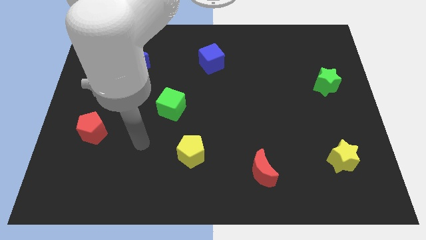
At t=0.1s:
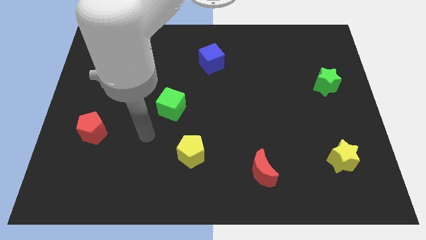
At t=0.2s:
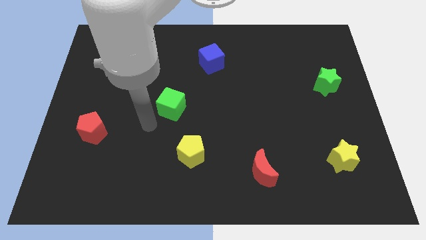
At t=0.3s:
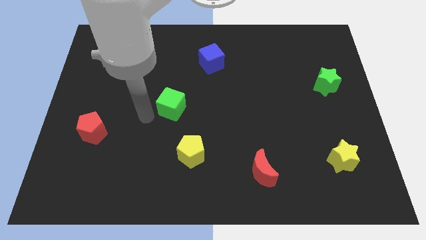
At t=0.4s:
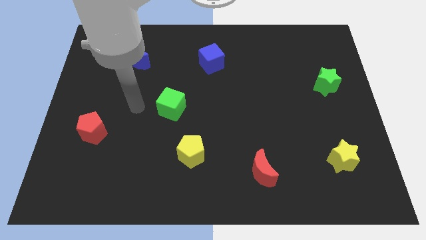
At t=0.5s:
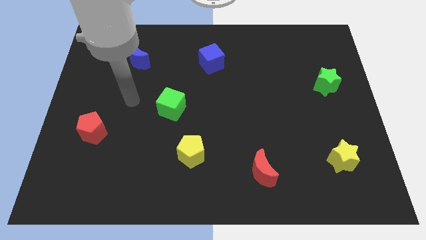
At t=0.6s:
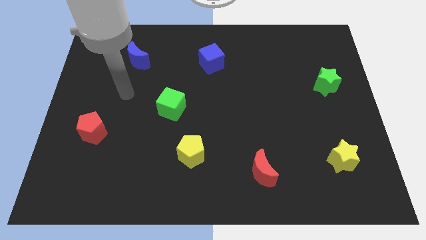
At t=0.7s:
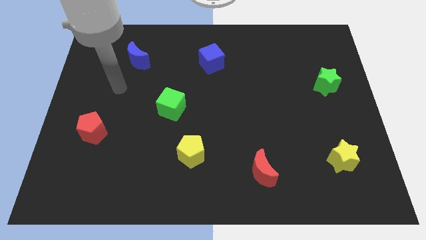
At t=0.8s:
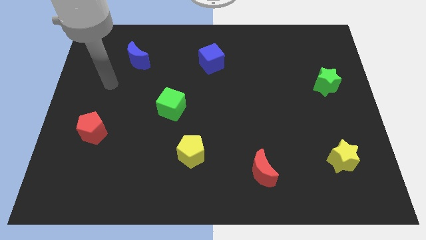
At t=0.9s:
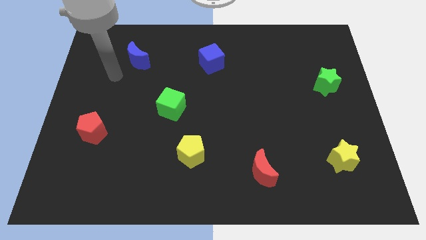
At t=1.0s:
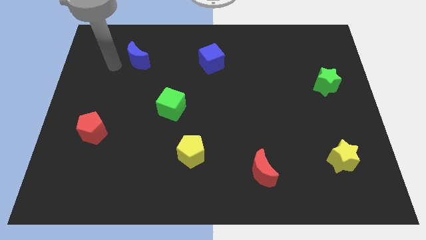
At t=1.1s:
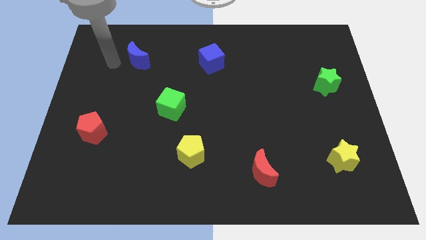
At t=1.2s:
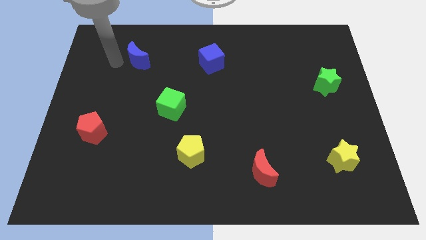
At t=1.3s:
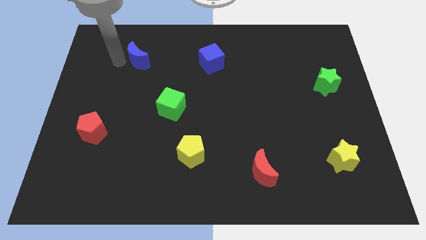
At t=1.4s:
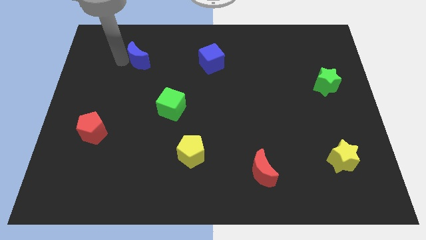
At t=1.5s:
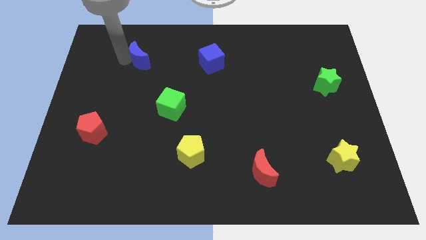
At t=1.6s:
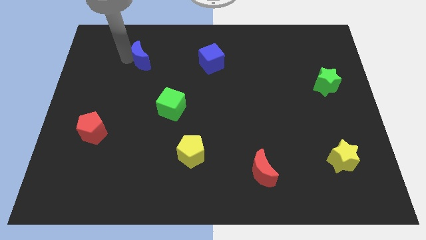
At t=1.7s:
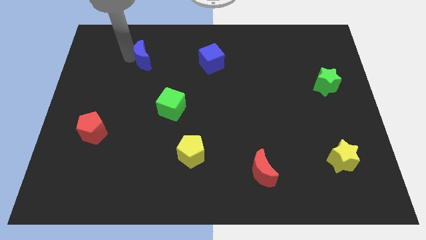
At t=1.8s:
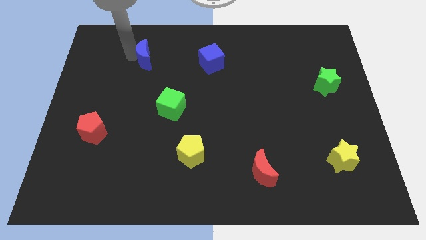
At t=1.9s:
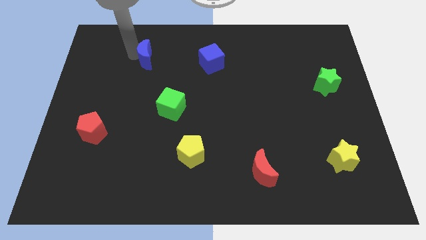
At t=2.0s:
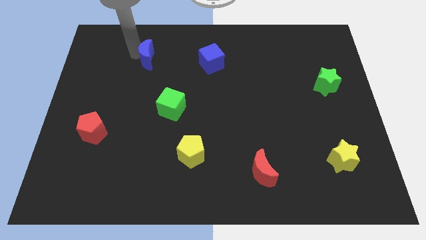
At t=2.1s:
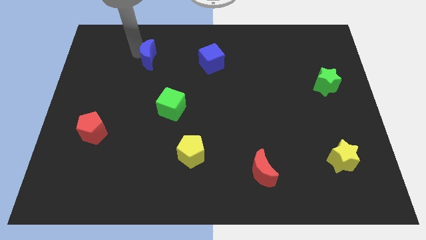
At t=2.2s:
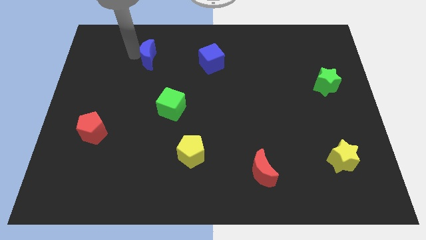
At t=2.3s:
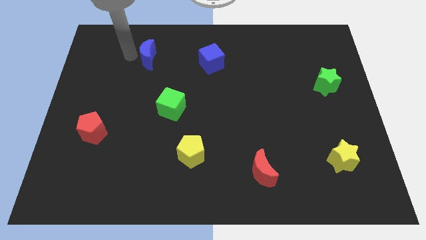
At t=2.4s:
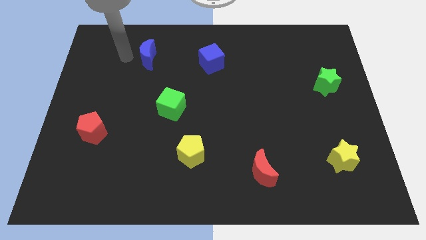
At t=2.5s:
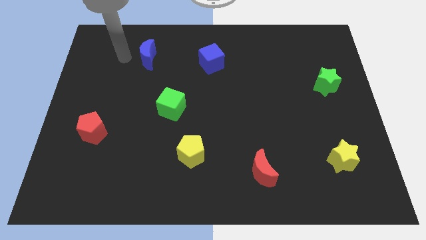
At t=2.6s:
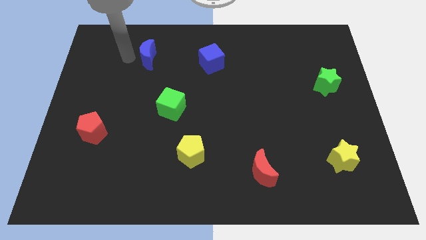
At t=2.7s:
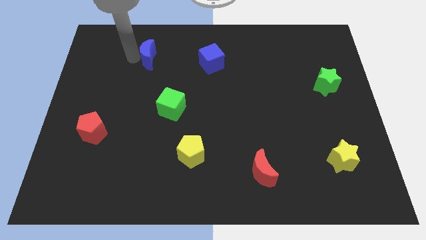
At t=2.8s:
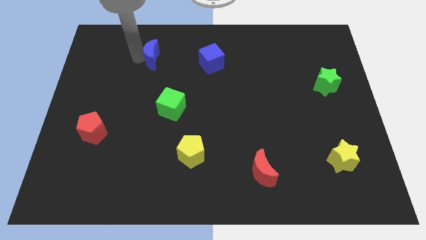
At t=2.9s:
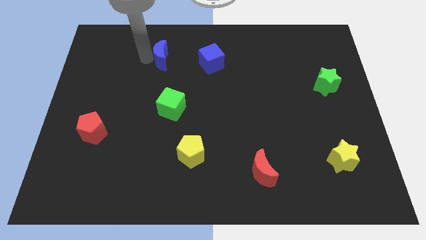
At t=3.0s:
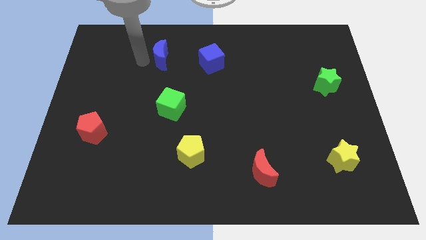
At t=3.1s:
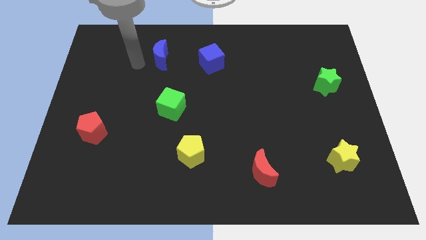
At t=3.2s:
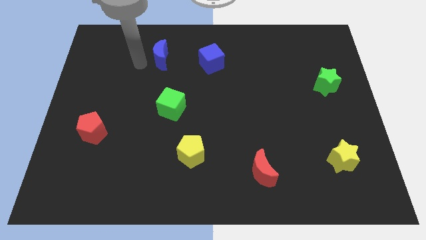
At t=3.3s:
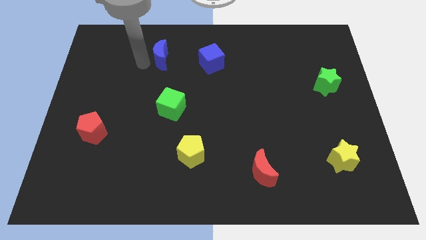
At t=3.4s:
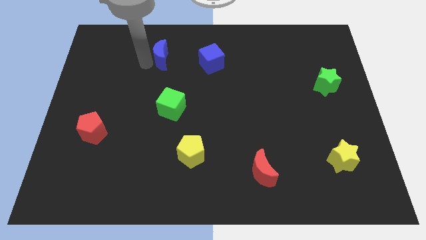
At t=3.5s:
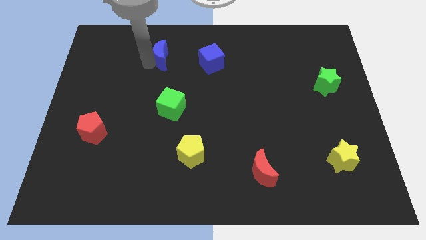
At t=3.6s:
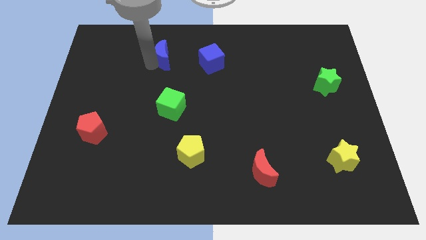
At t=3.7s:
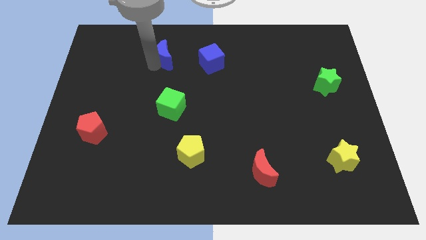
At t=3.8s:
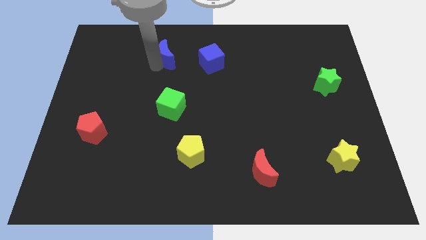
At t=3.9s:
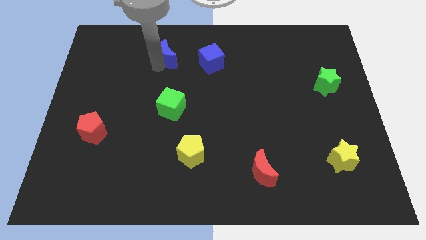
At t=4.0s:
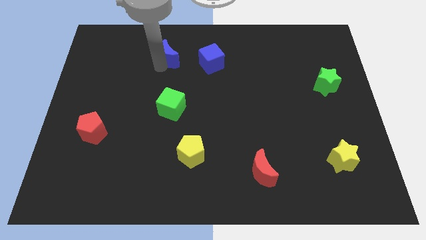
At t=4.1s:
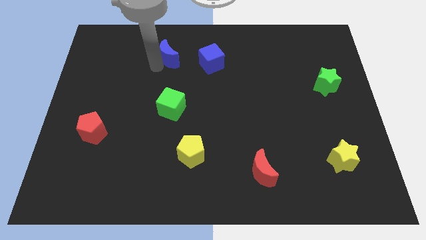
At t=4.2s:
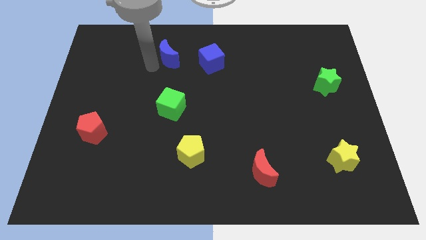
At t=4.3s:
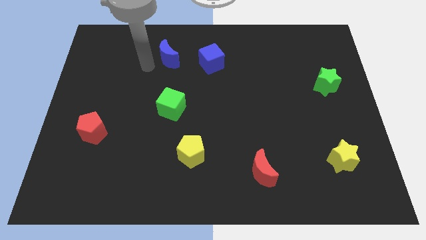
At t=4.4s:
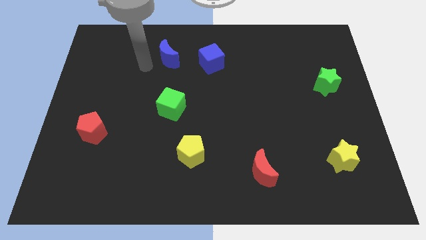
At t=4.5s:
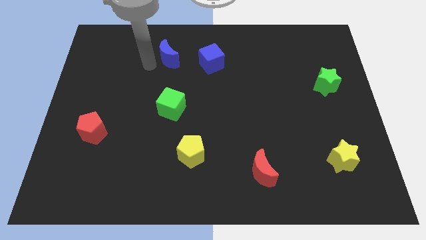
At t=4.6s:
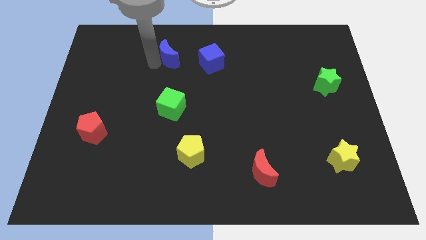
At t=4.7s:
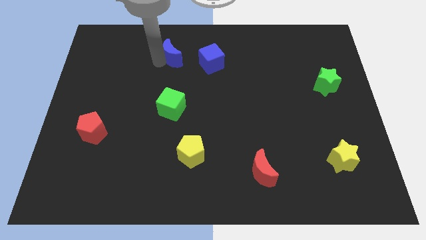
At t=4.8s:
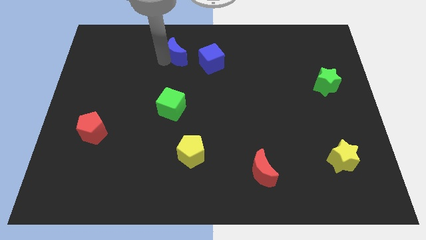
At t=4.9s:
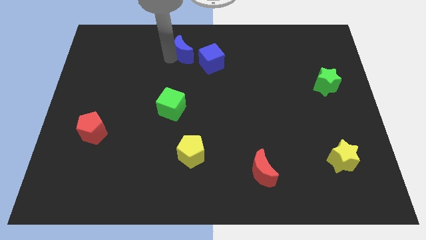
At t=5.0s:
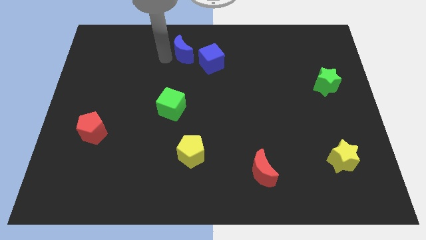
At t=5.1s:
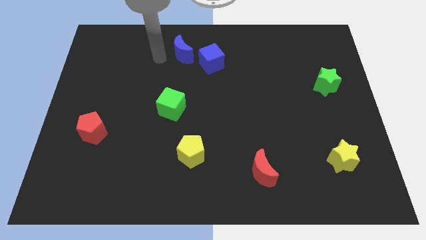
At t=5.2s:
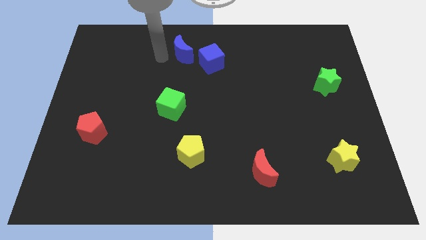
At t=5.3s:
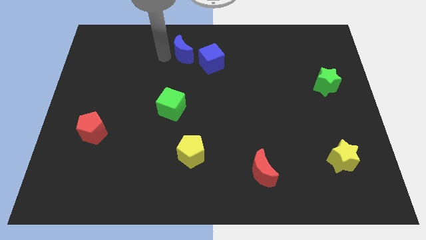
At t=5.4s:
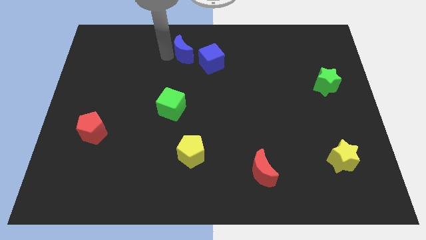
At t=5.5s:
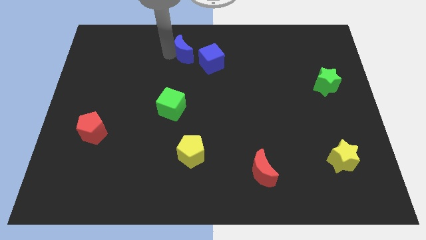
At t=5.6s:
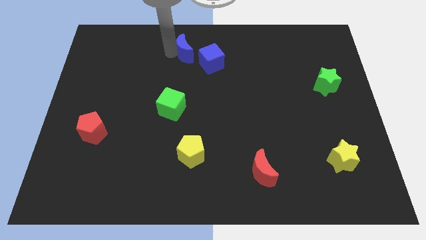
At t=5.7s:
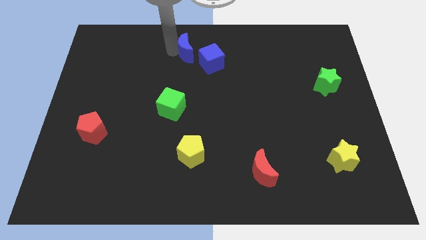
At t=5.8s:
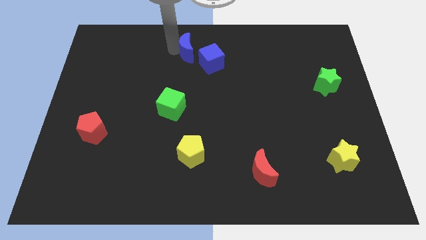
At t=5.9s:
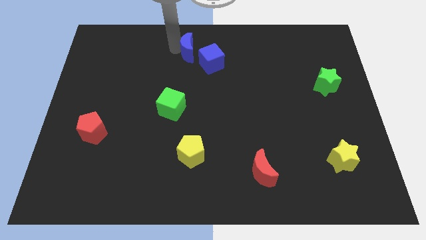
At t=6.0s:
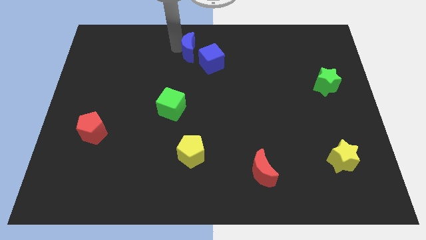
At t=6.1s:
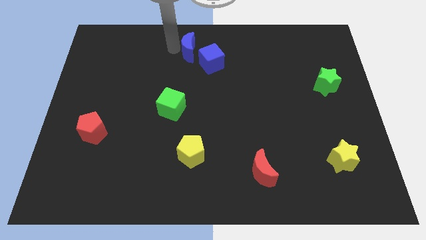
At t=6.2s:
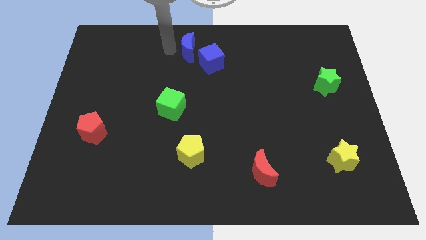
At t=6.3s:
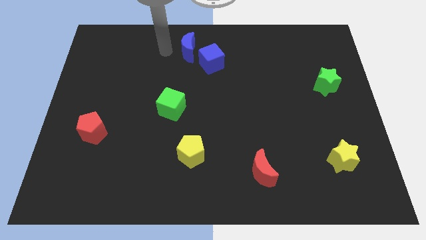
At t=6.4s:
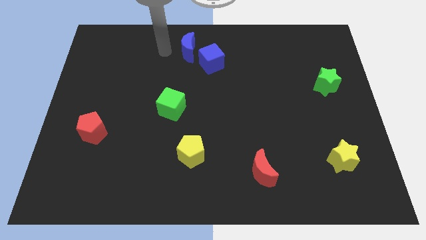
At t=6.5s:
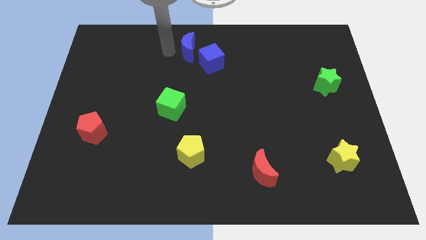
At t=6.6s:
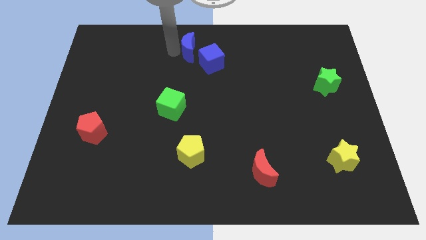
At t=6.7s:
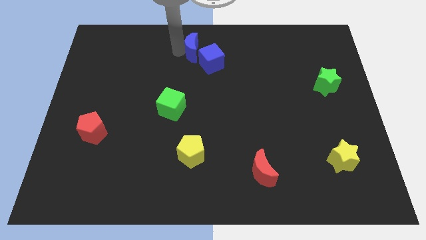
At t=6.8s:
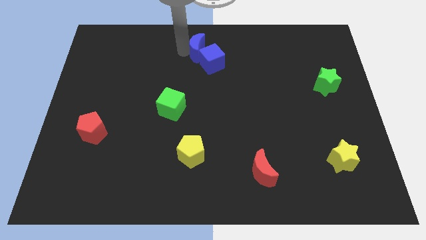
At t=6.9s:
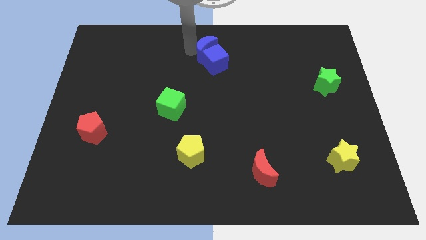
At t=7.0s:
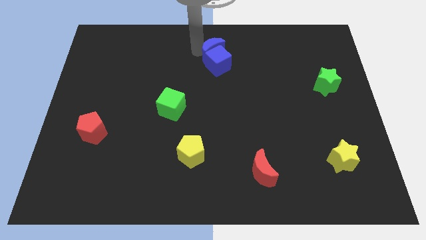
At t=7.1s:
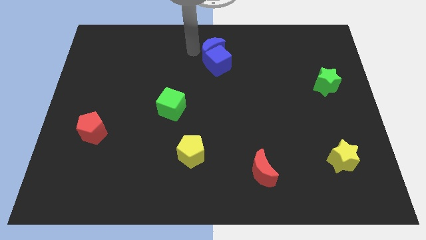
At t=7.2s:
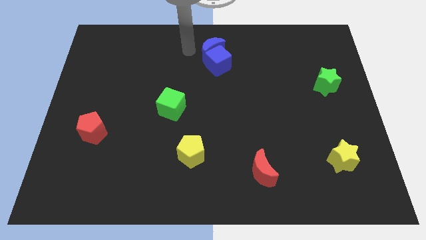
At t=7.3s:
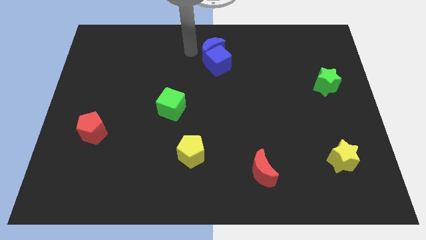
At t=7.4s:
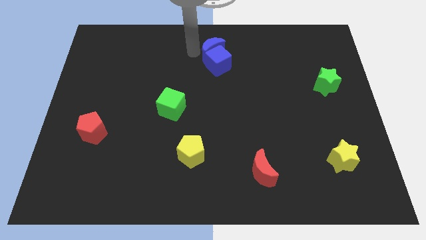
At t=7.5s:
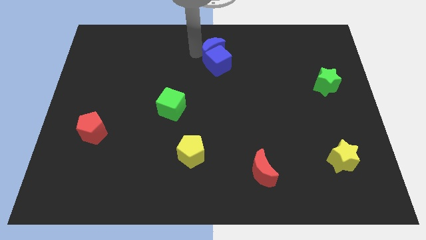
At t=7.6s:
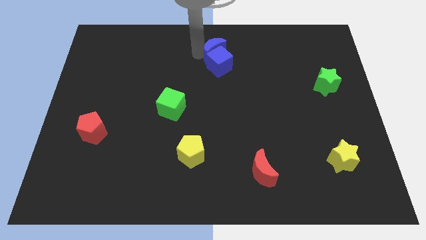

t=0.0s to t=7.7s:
move the blue moon to the right

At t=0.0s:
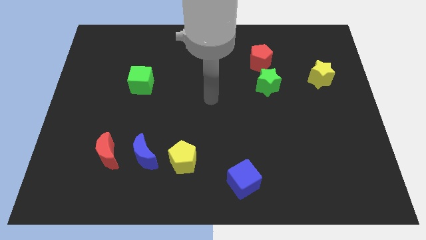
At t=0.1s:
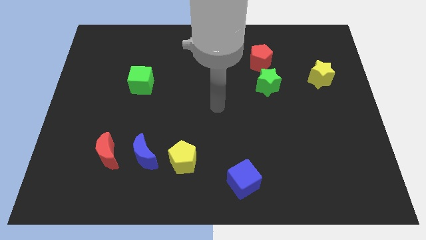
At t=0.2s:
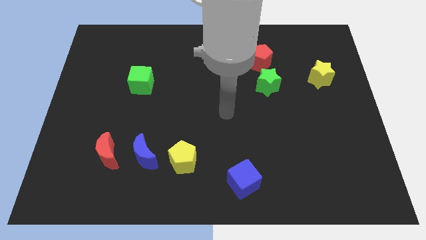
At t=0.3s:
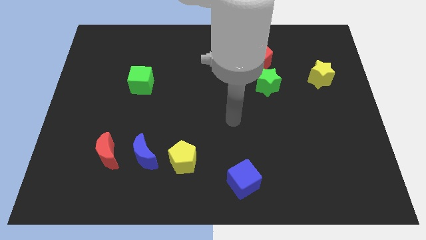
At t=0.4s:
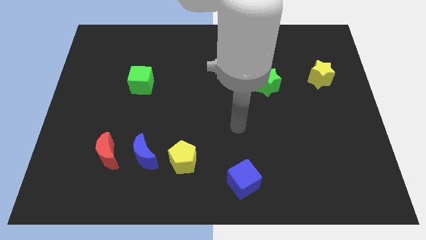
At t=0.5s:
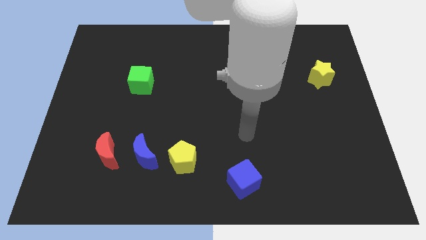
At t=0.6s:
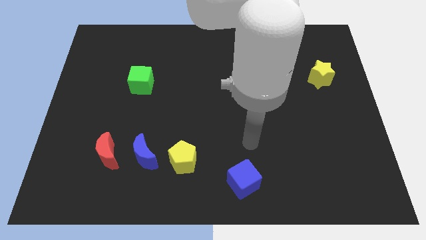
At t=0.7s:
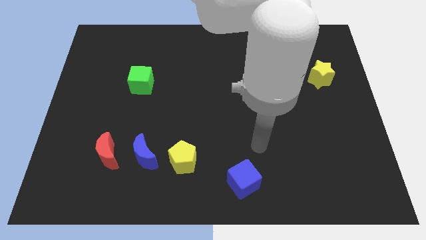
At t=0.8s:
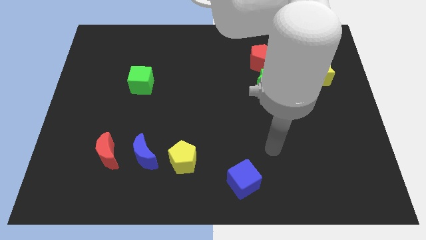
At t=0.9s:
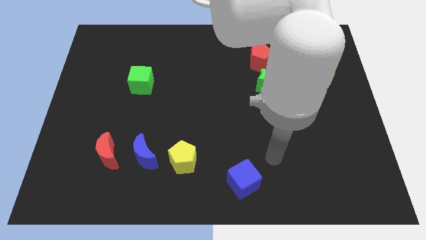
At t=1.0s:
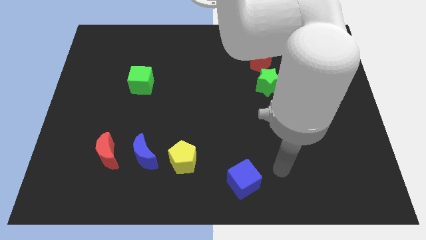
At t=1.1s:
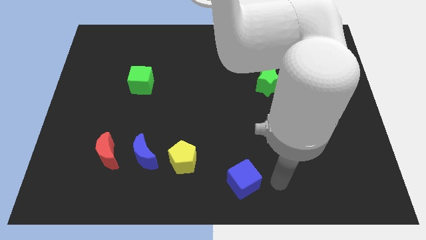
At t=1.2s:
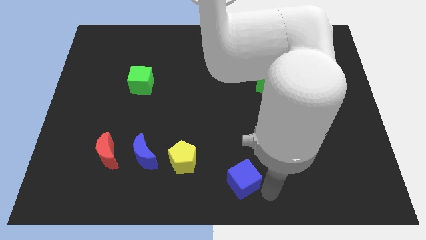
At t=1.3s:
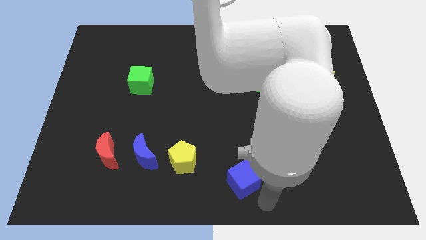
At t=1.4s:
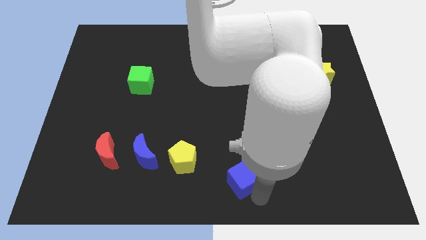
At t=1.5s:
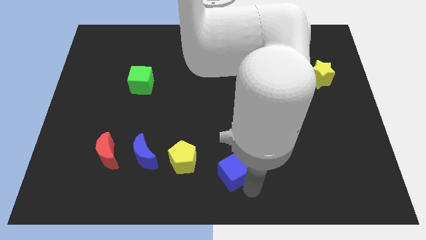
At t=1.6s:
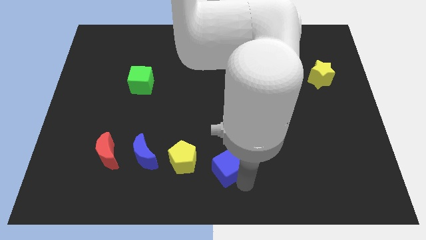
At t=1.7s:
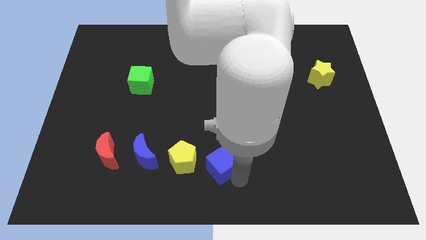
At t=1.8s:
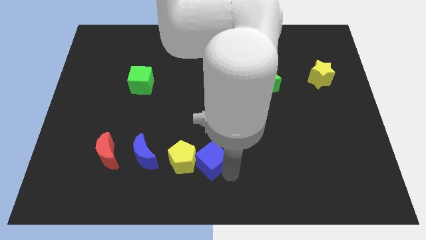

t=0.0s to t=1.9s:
push the blue cube up and then left a little bit
